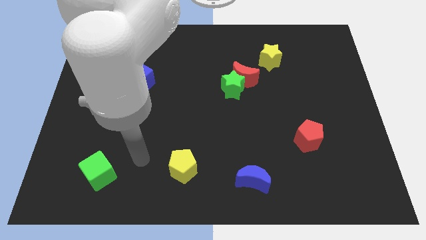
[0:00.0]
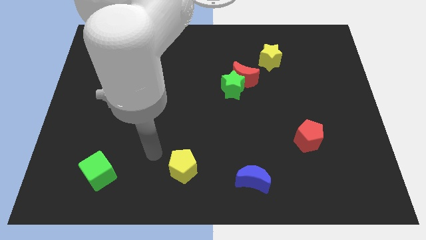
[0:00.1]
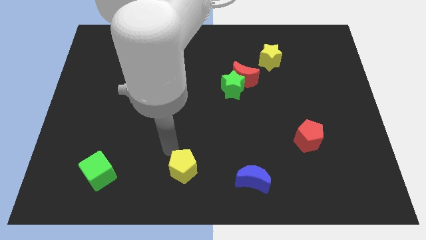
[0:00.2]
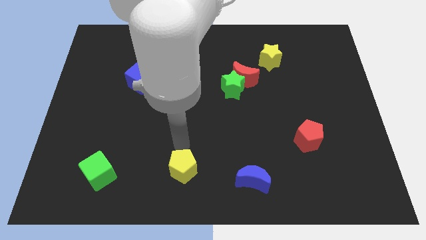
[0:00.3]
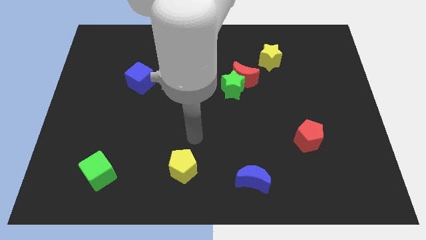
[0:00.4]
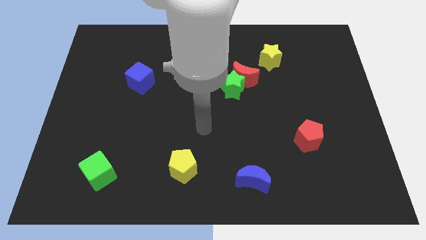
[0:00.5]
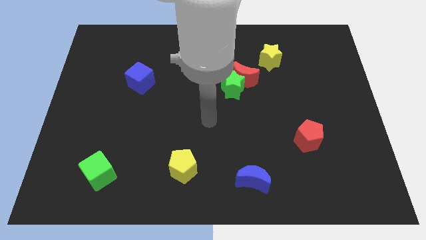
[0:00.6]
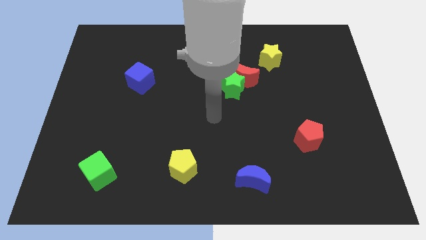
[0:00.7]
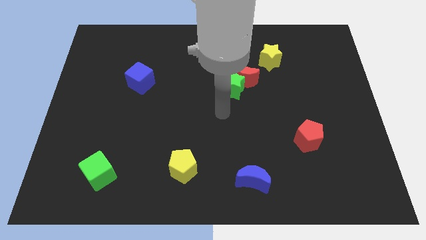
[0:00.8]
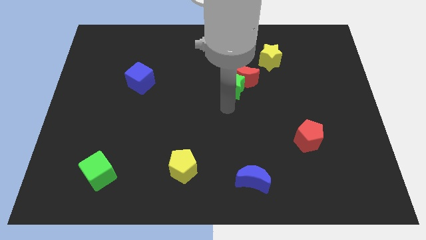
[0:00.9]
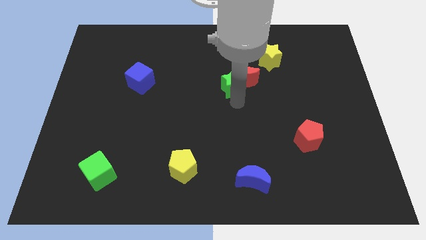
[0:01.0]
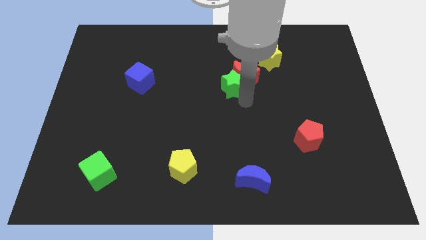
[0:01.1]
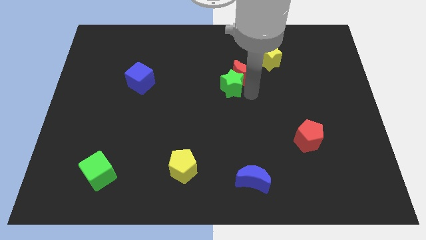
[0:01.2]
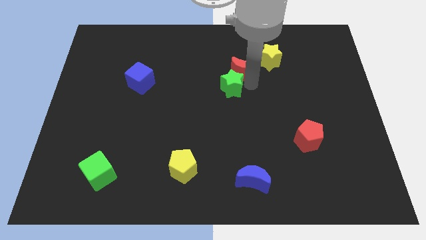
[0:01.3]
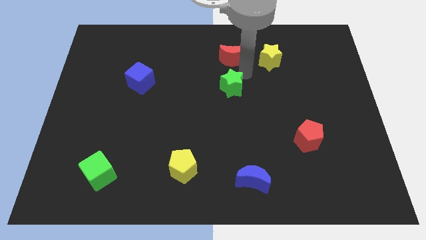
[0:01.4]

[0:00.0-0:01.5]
move the green star away from the red moon

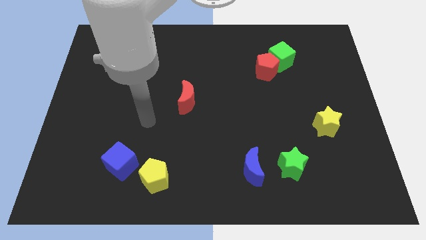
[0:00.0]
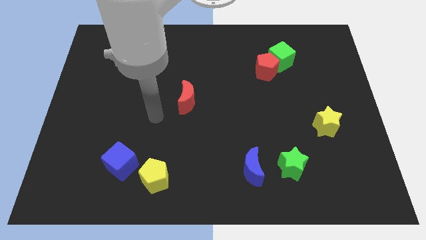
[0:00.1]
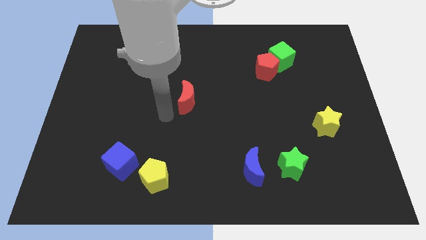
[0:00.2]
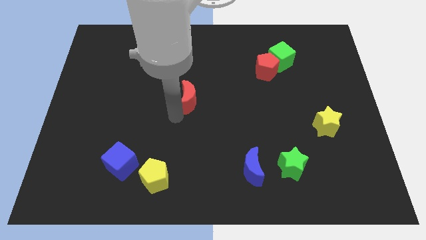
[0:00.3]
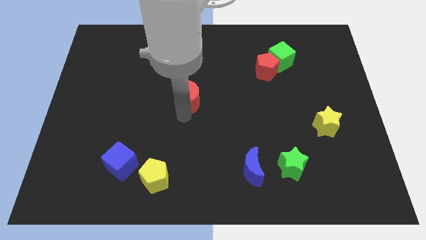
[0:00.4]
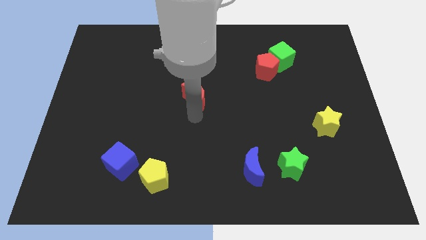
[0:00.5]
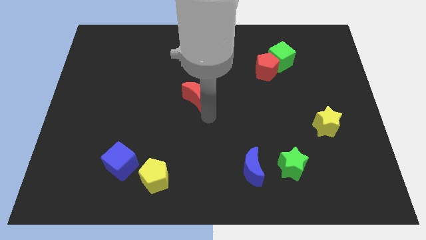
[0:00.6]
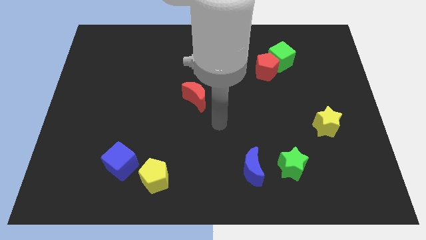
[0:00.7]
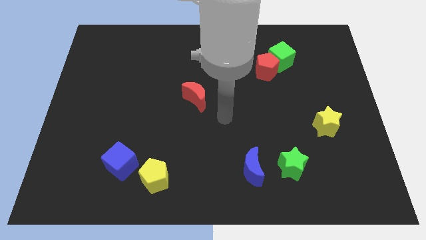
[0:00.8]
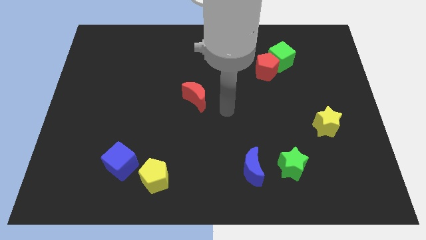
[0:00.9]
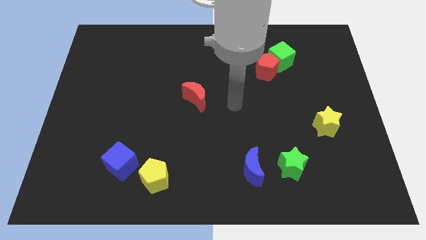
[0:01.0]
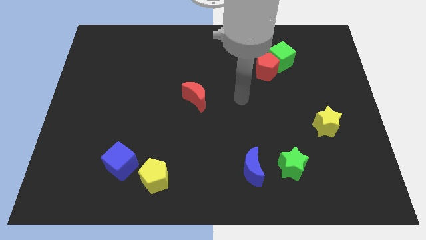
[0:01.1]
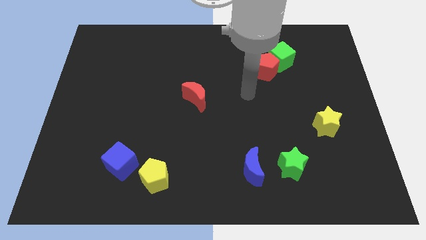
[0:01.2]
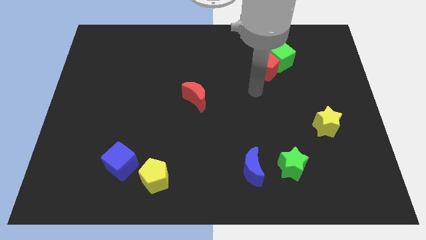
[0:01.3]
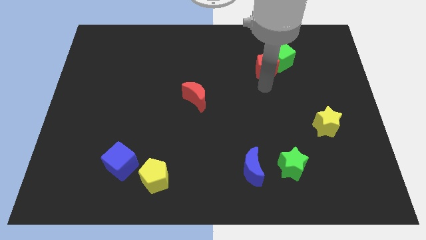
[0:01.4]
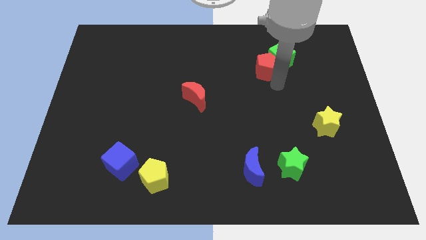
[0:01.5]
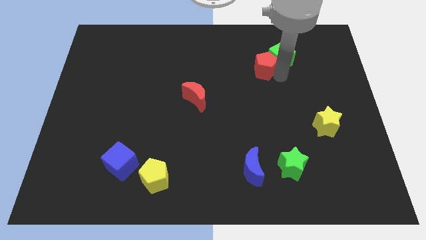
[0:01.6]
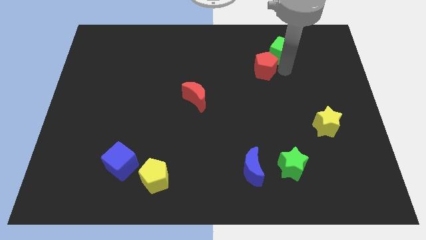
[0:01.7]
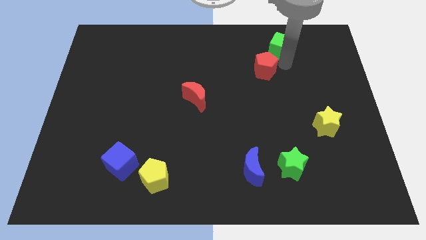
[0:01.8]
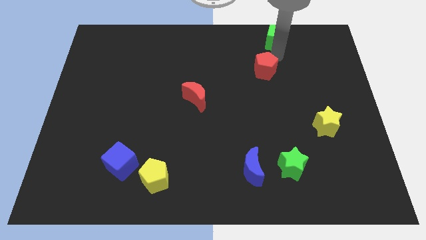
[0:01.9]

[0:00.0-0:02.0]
move the red pentagon away from the green cube

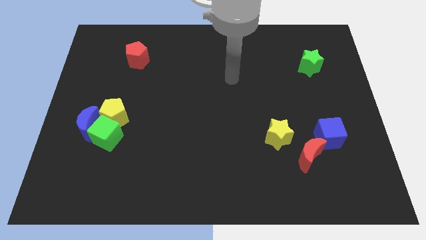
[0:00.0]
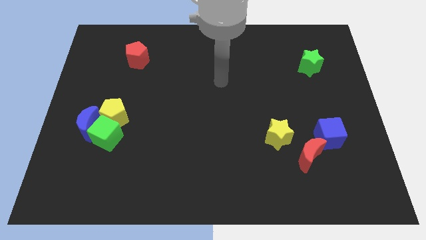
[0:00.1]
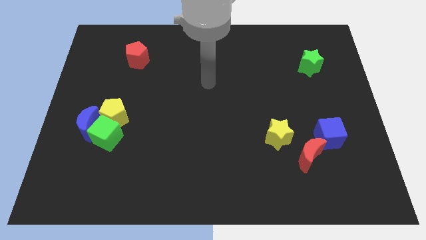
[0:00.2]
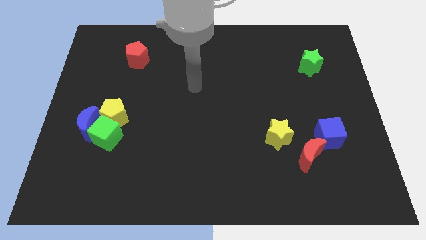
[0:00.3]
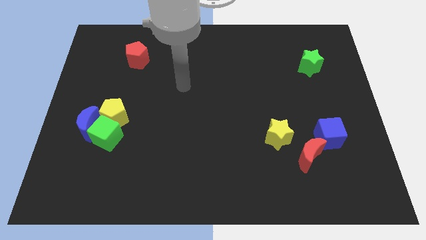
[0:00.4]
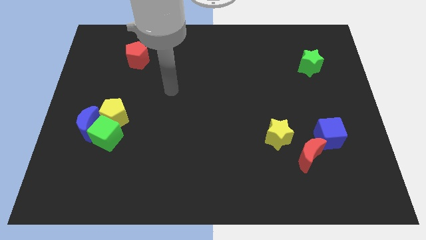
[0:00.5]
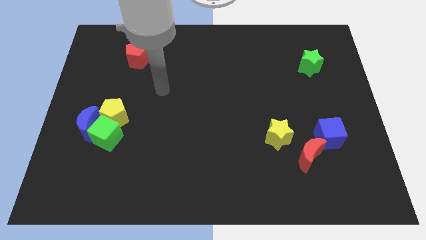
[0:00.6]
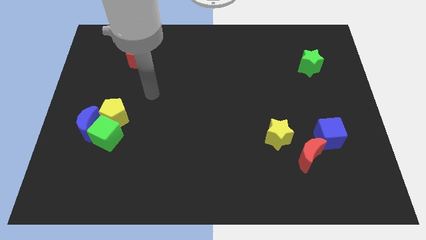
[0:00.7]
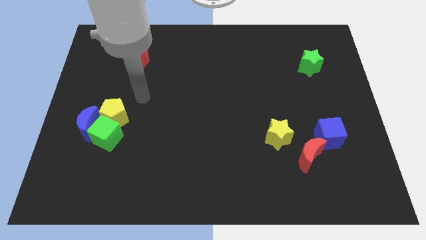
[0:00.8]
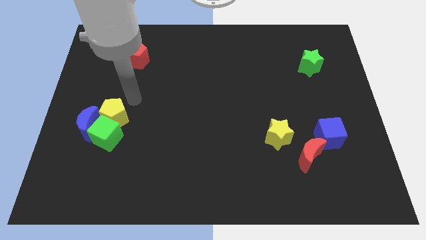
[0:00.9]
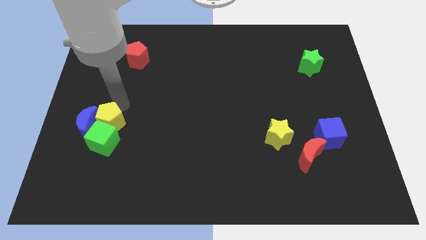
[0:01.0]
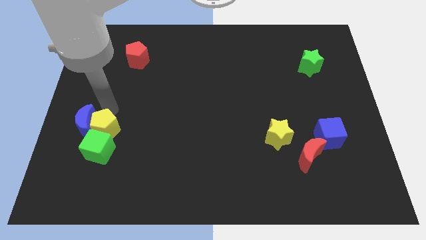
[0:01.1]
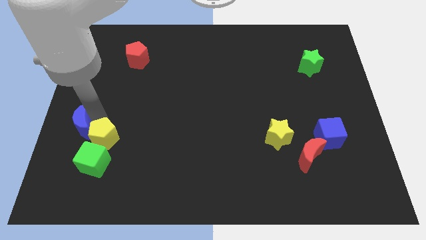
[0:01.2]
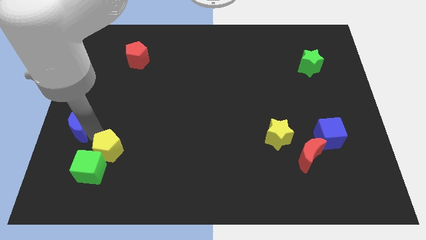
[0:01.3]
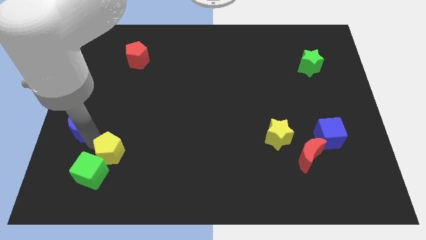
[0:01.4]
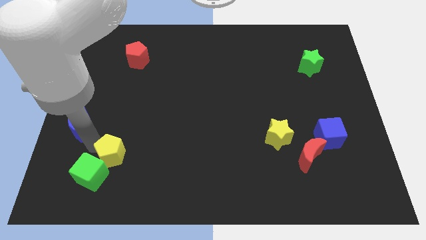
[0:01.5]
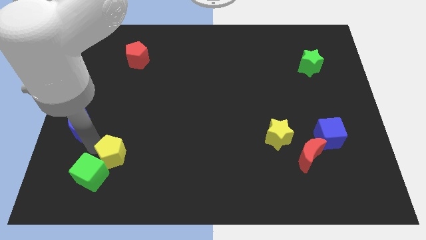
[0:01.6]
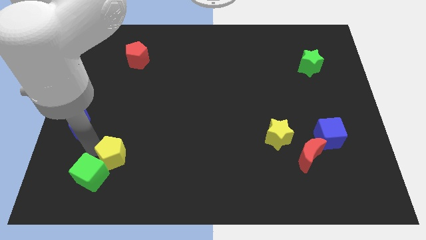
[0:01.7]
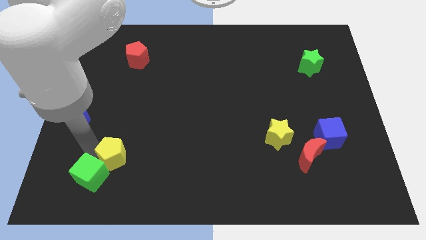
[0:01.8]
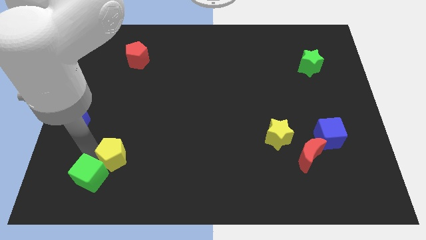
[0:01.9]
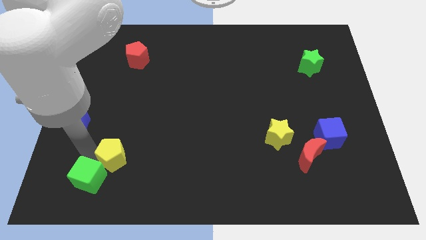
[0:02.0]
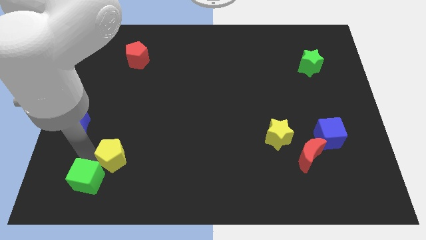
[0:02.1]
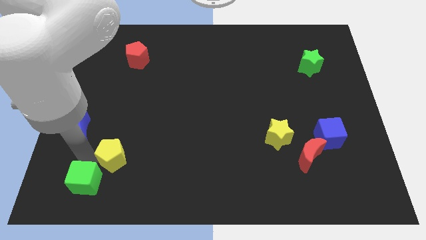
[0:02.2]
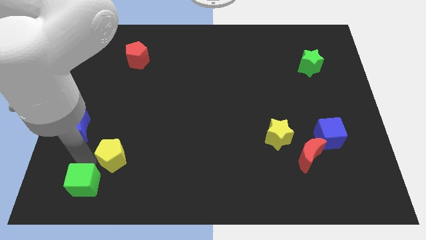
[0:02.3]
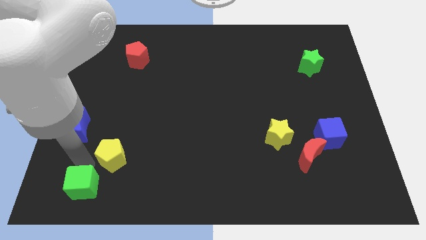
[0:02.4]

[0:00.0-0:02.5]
separate the green cube from the blue moon and yellow pentagon

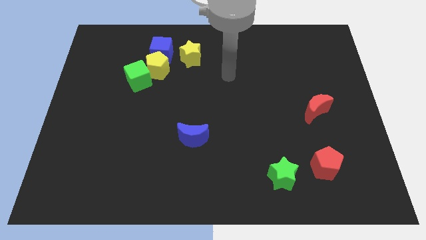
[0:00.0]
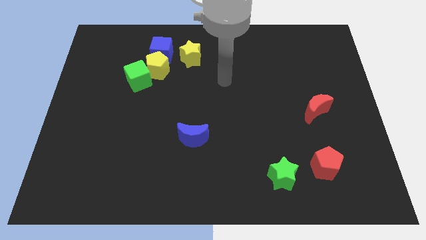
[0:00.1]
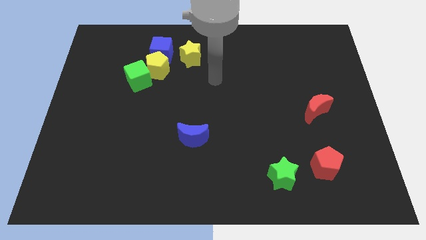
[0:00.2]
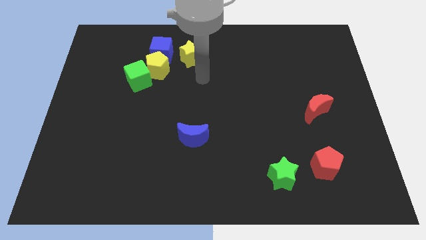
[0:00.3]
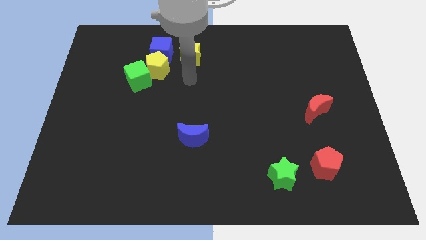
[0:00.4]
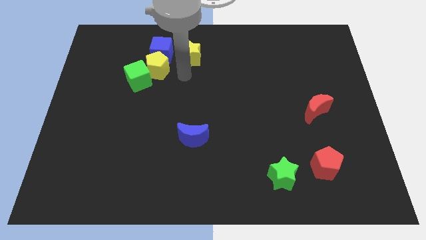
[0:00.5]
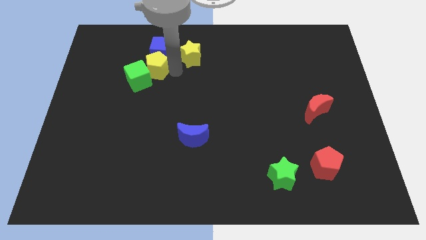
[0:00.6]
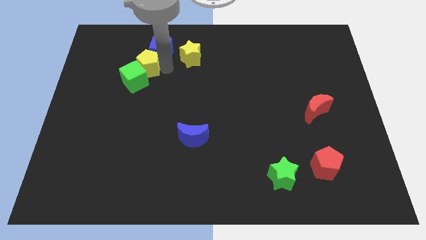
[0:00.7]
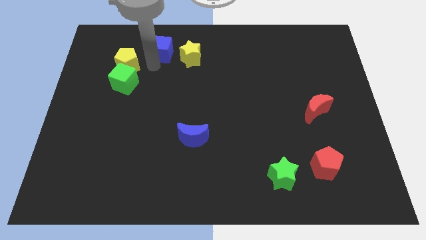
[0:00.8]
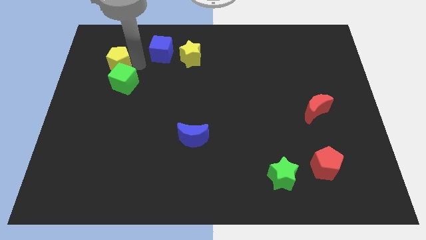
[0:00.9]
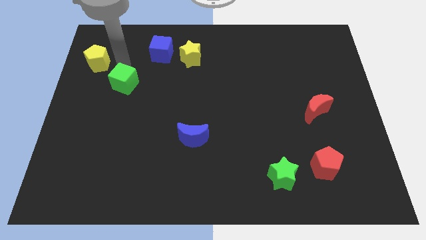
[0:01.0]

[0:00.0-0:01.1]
move the green cube away from the yellow pentagon

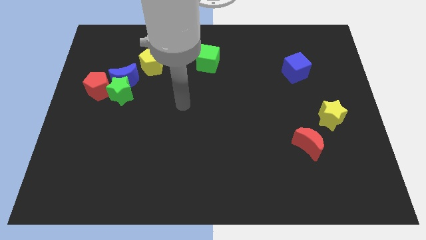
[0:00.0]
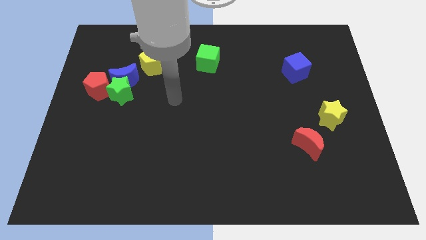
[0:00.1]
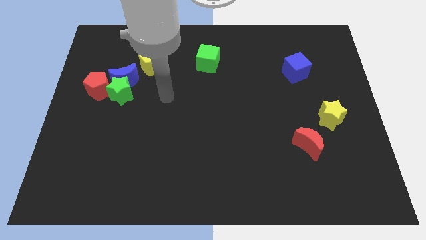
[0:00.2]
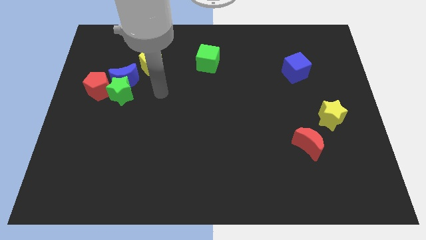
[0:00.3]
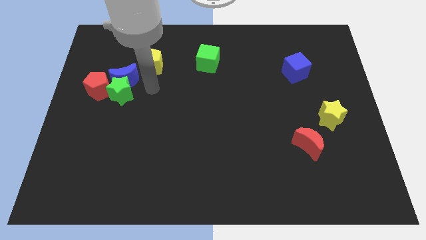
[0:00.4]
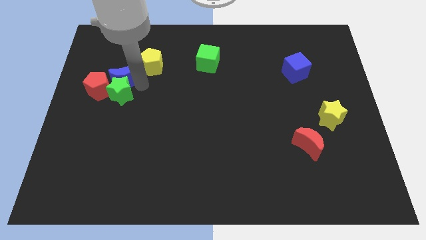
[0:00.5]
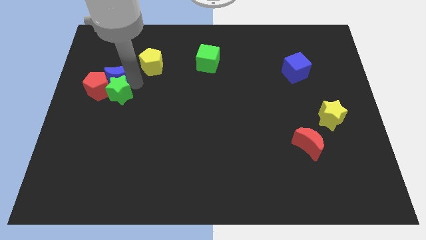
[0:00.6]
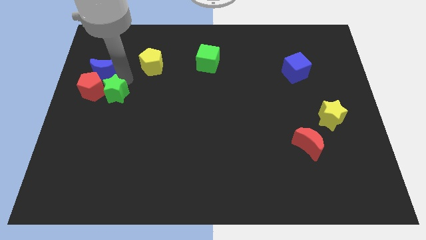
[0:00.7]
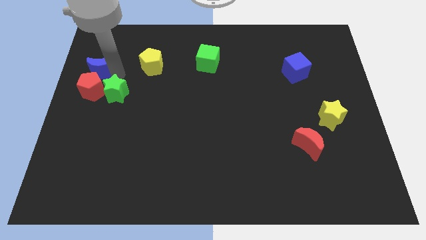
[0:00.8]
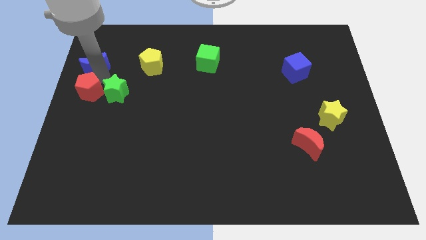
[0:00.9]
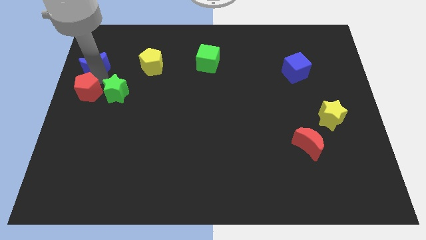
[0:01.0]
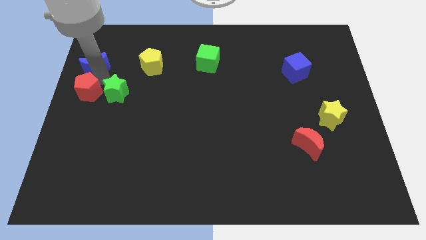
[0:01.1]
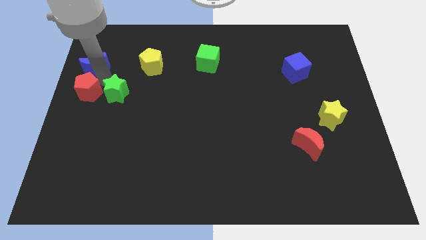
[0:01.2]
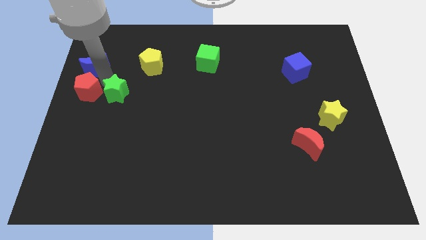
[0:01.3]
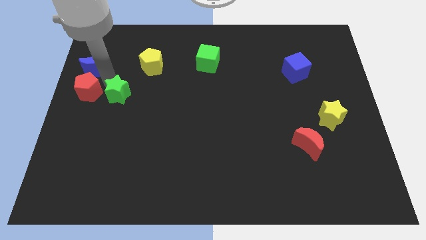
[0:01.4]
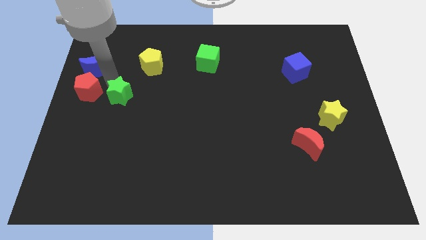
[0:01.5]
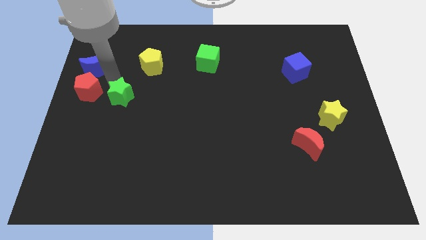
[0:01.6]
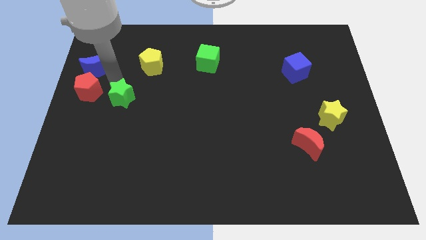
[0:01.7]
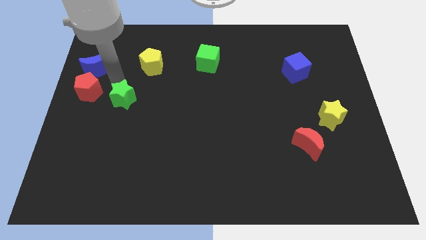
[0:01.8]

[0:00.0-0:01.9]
separate the green star from the blue moon and red pentagon

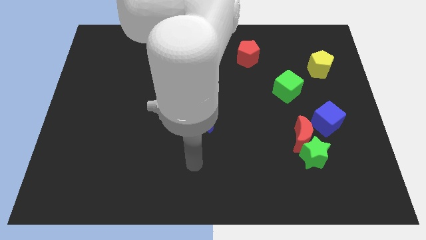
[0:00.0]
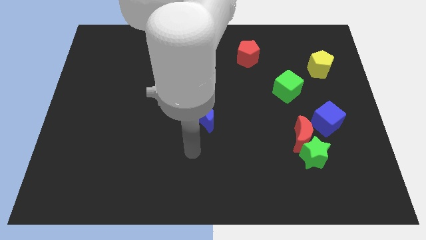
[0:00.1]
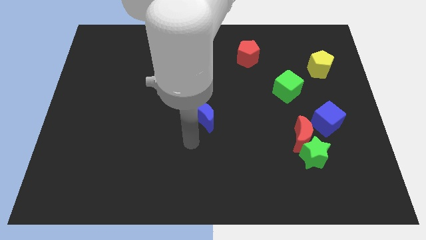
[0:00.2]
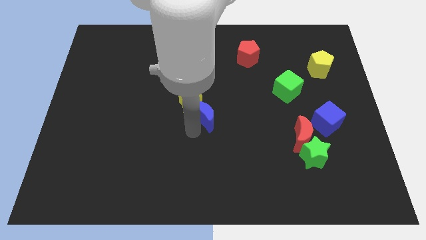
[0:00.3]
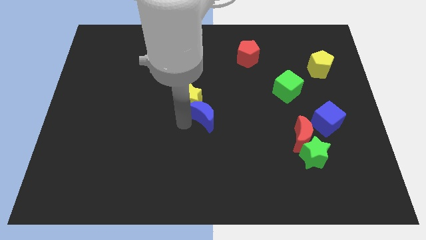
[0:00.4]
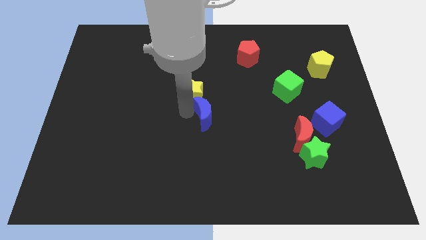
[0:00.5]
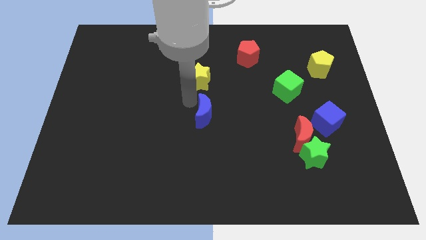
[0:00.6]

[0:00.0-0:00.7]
pull the blue moon apart from the yellow star
